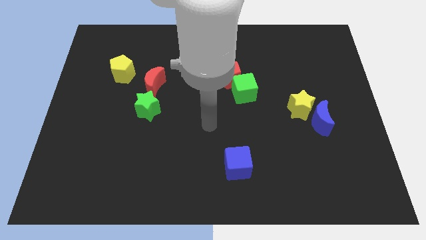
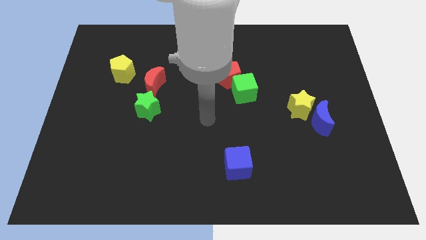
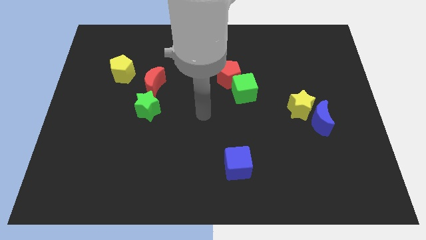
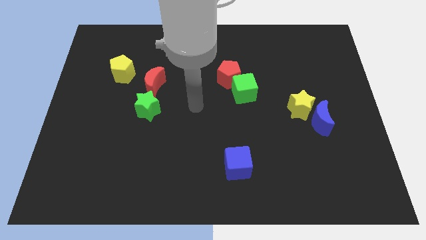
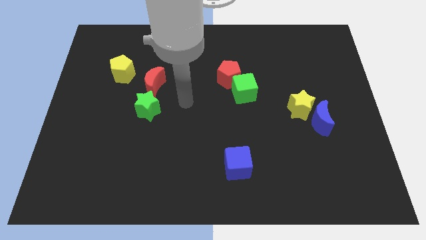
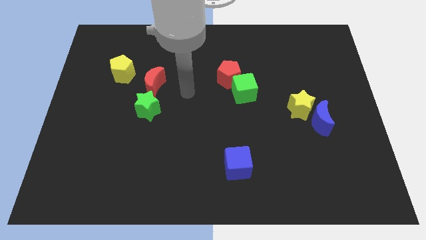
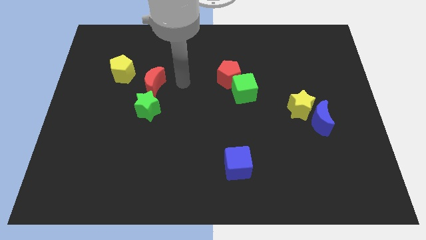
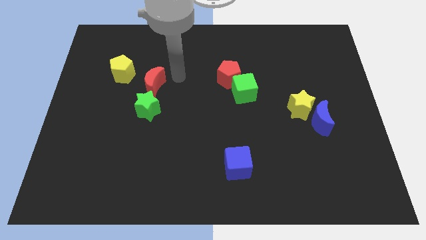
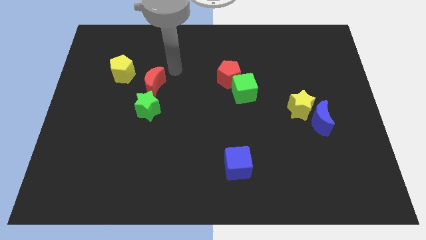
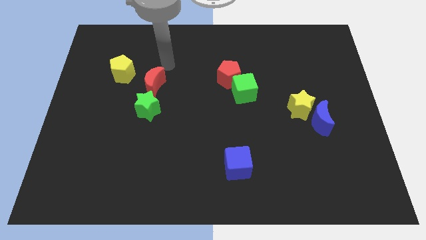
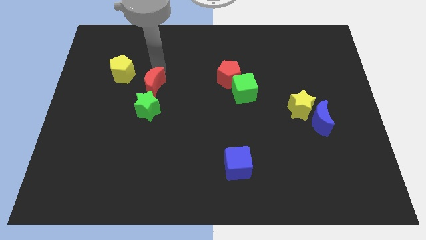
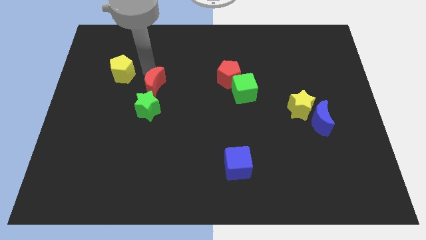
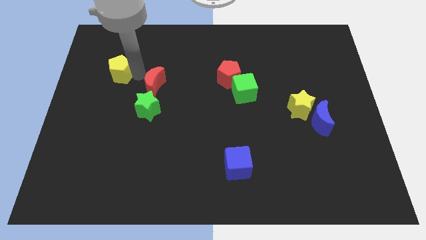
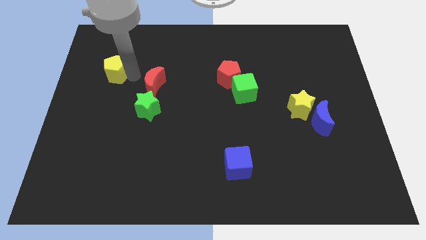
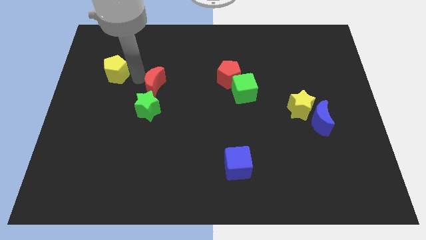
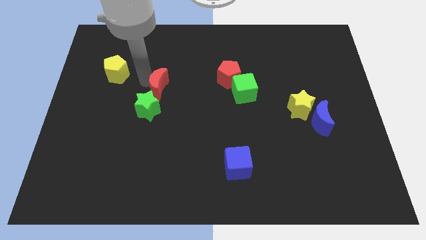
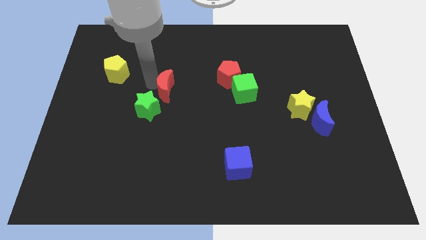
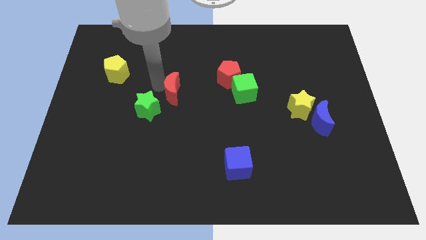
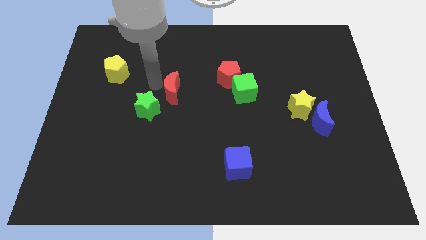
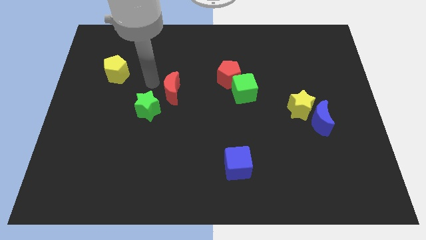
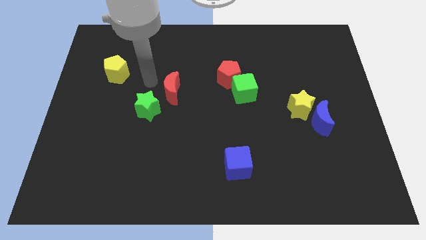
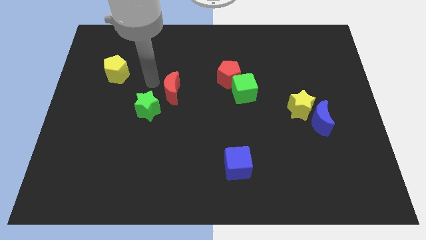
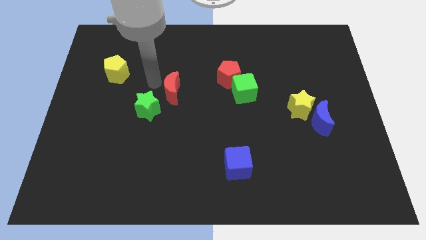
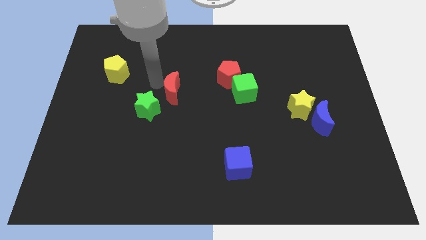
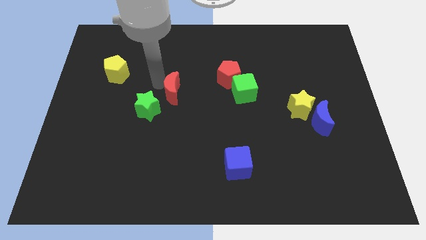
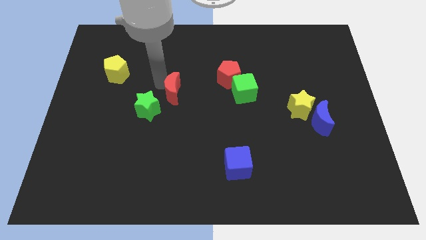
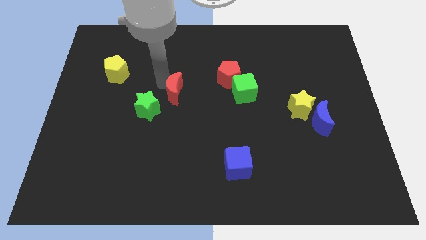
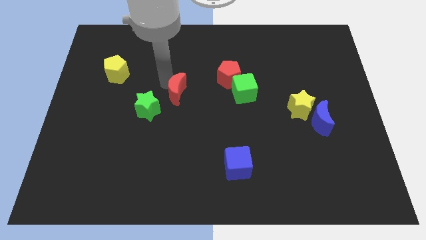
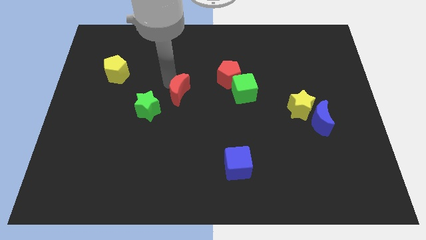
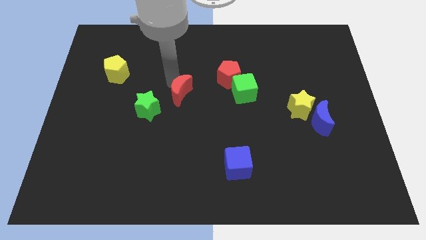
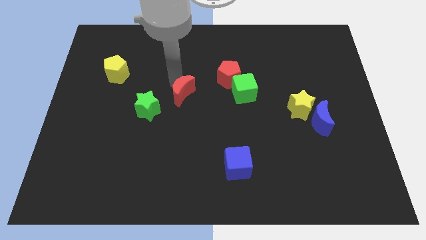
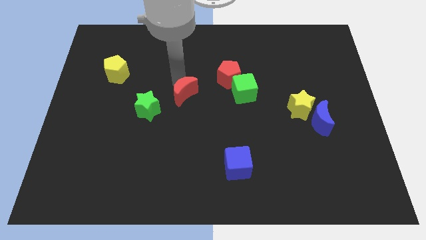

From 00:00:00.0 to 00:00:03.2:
slightly move the red moon down and to the right

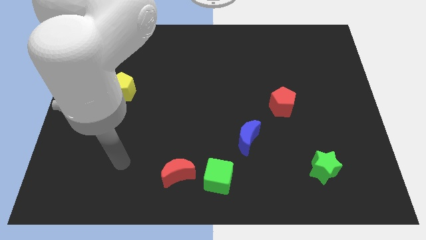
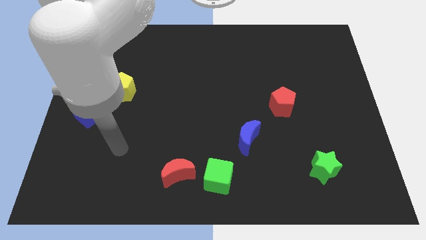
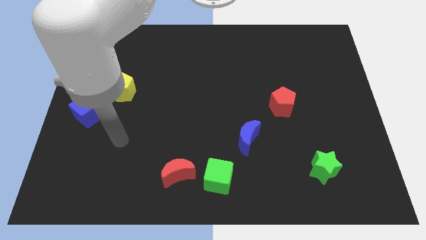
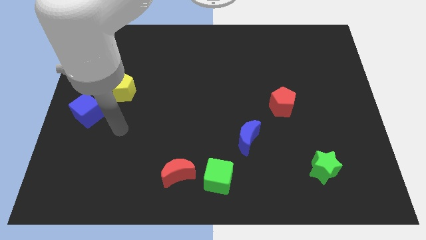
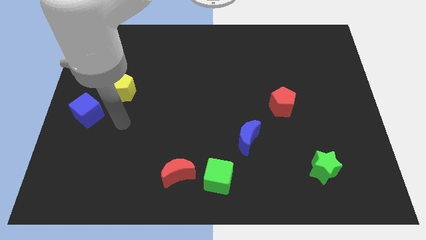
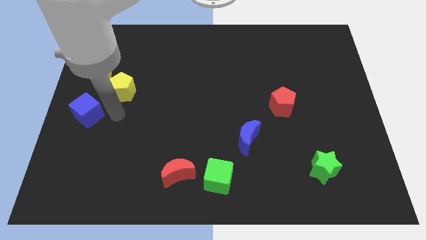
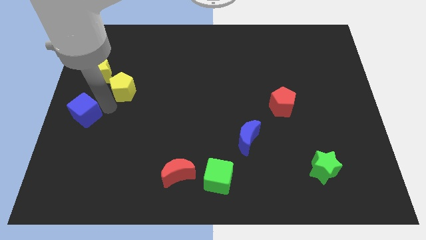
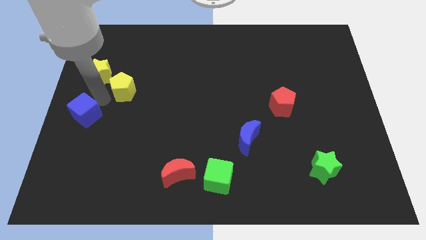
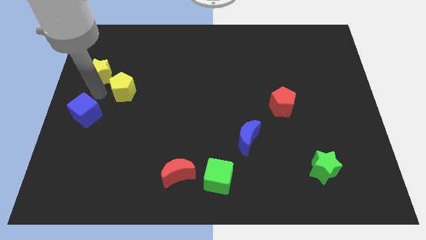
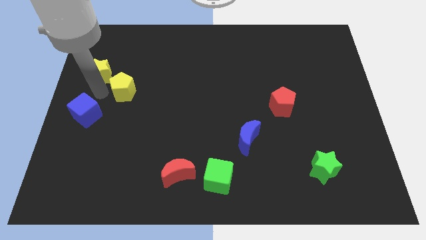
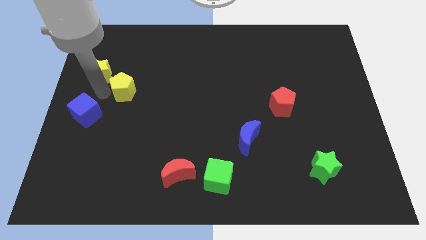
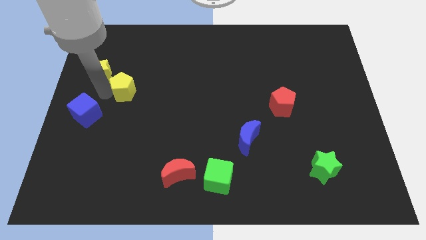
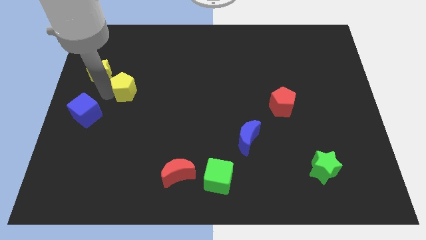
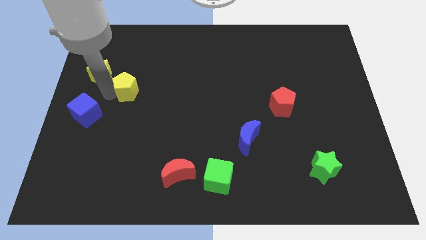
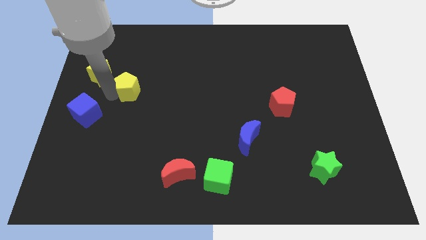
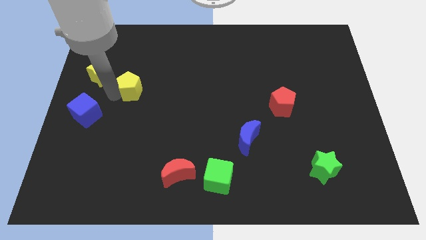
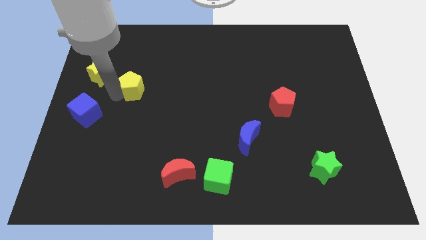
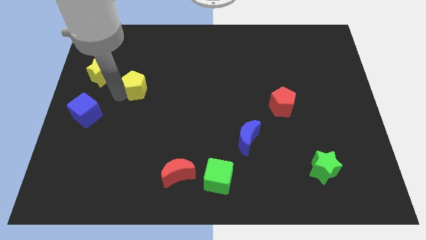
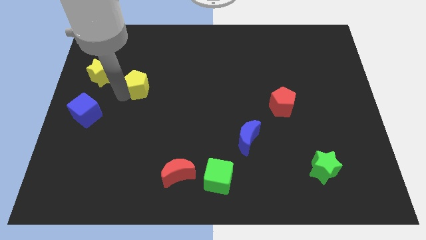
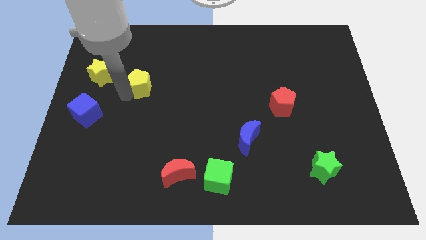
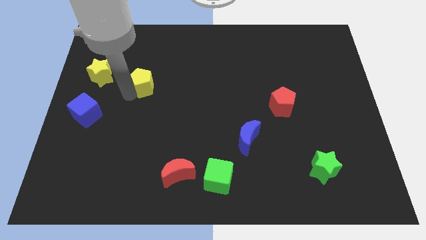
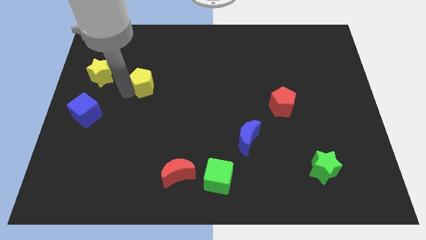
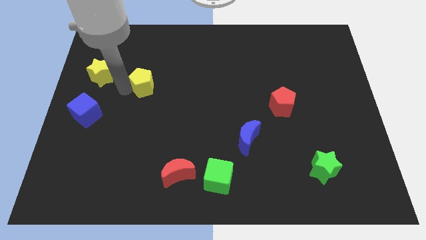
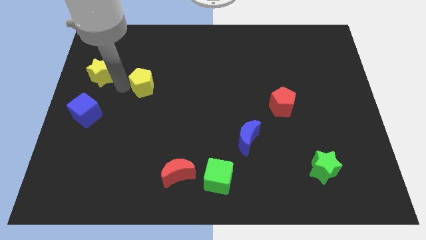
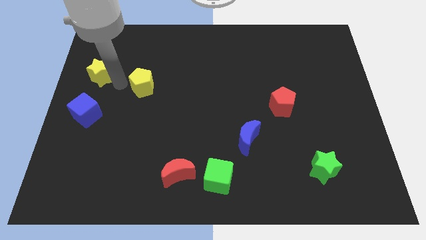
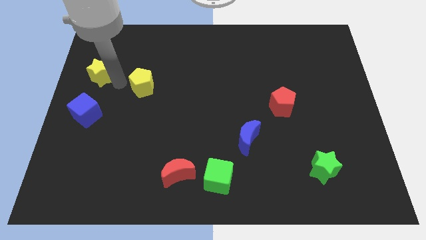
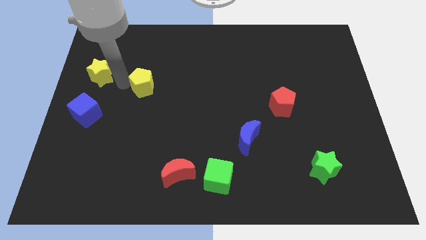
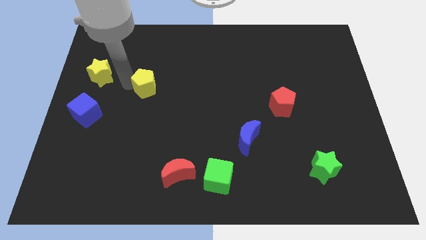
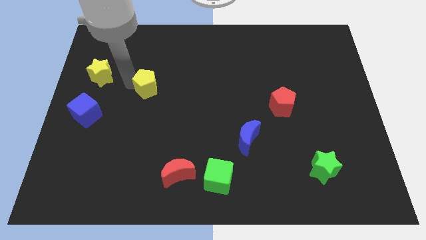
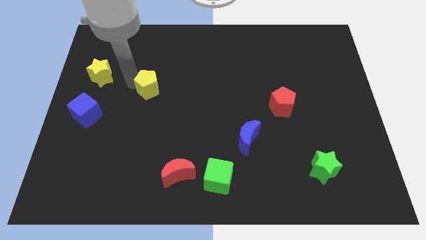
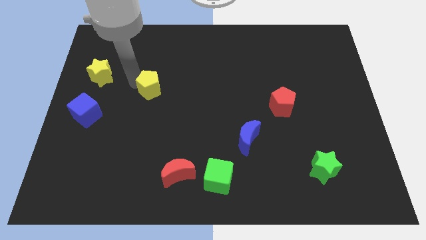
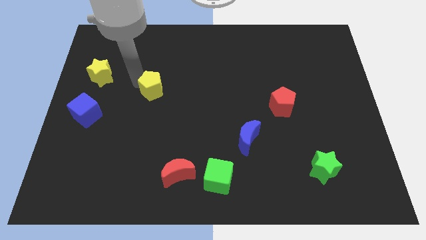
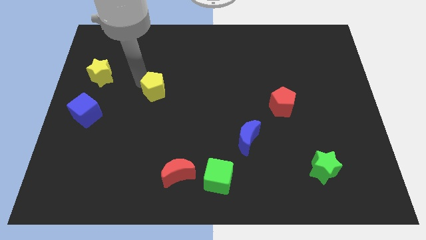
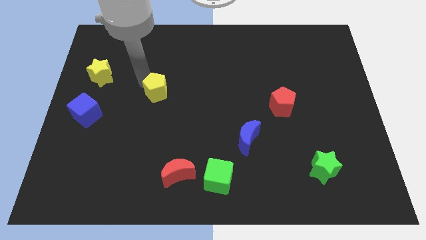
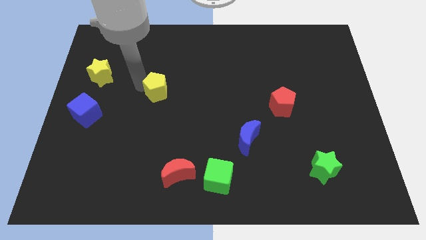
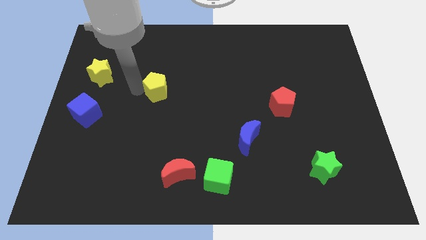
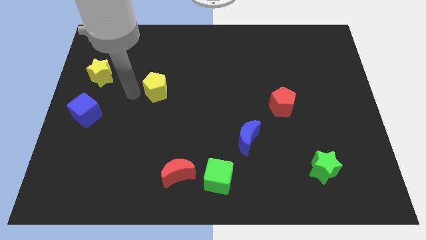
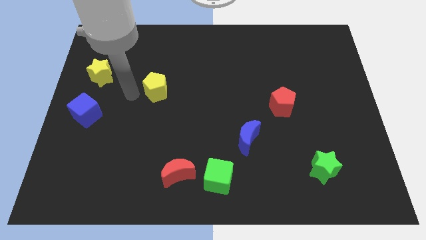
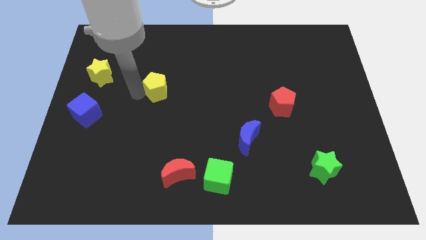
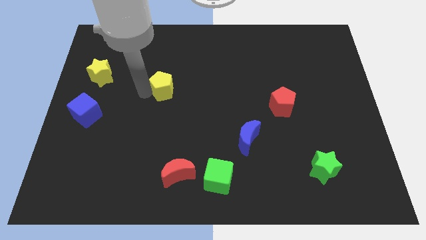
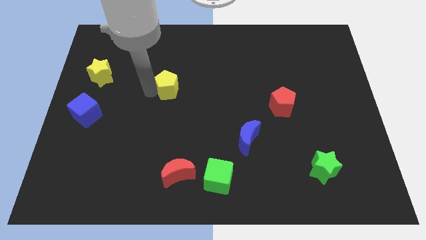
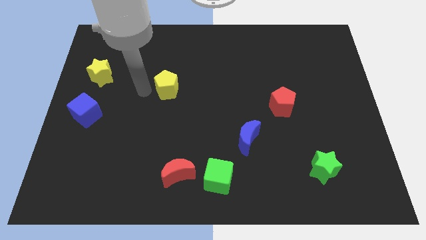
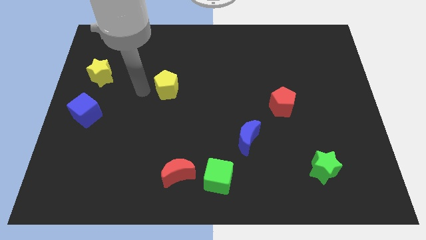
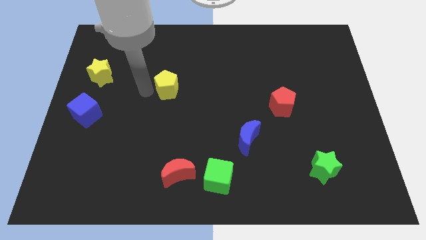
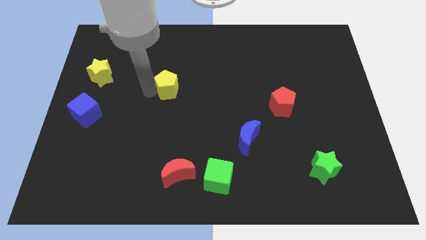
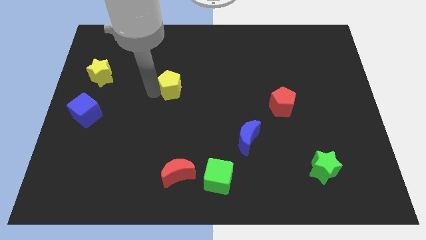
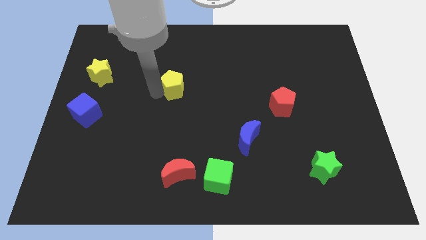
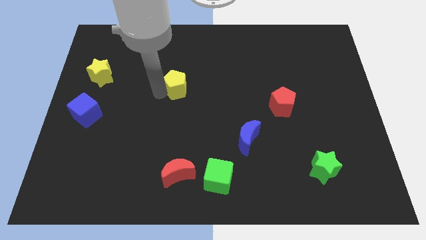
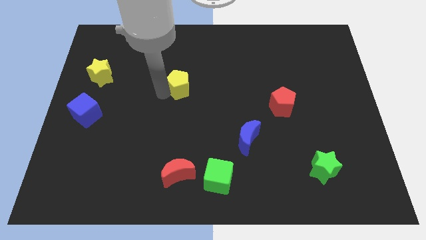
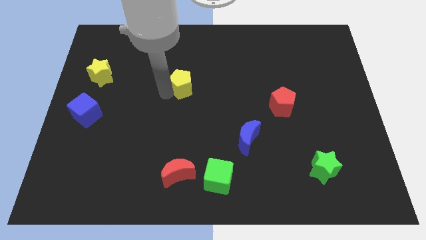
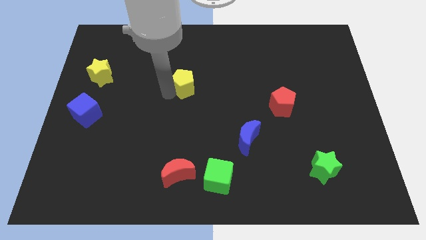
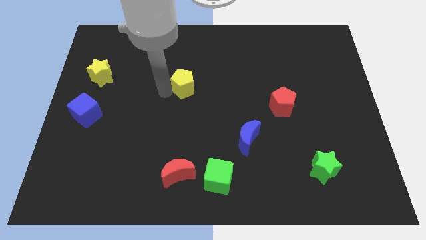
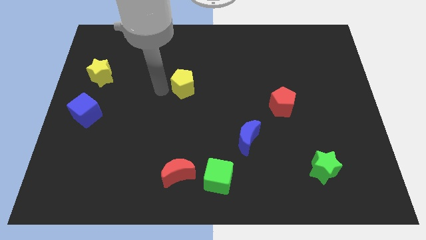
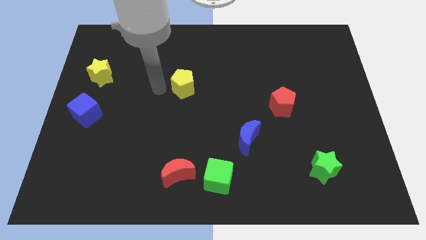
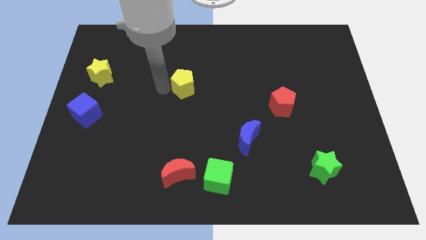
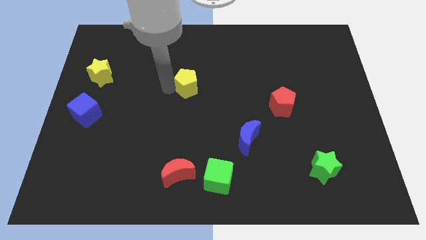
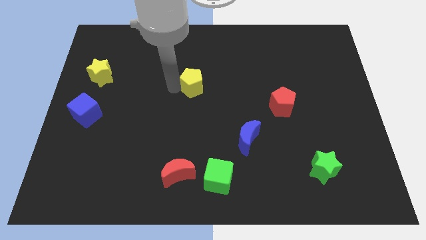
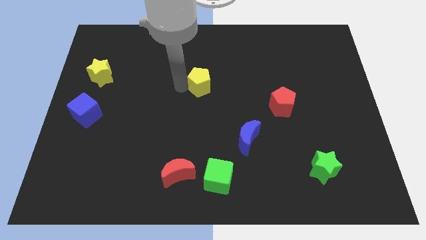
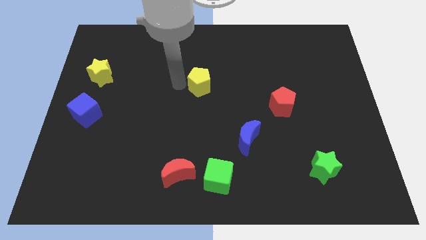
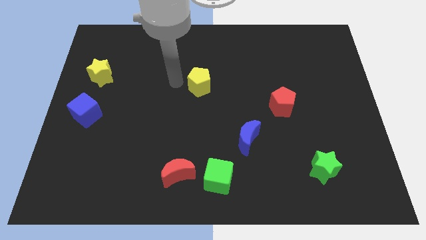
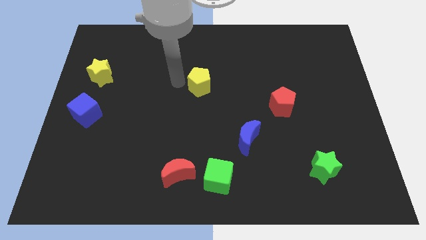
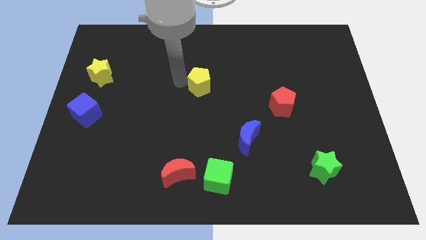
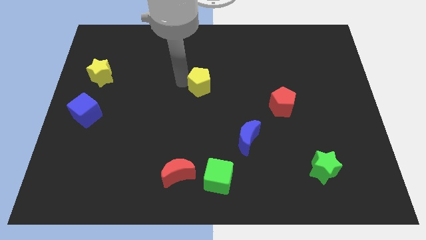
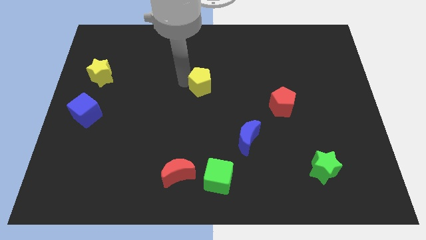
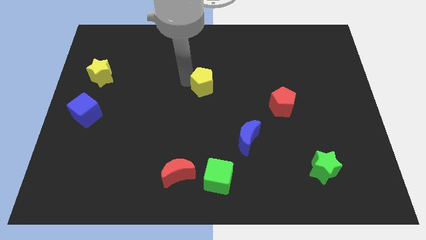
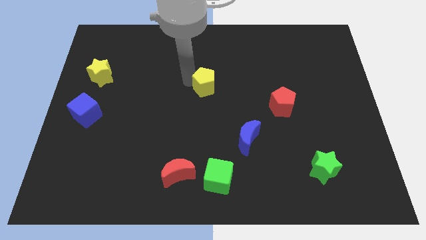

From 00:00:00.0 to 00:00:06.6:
slide the yellow pentagon right
